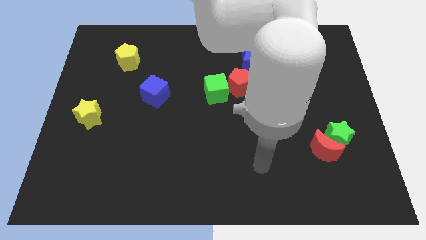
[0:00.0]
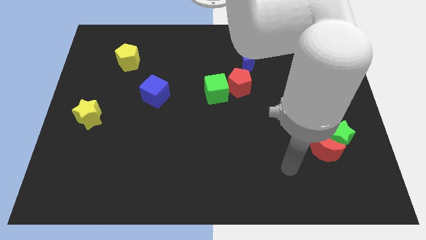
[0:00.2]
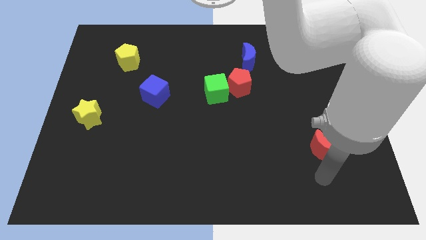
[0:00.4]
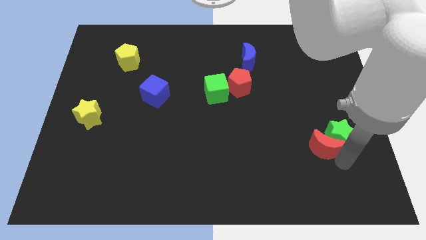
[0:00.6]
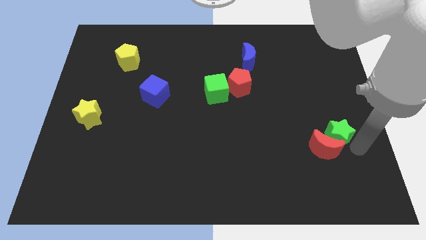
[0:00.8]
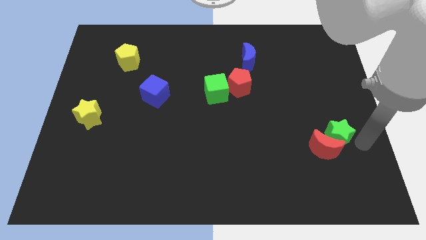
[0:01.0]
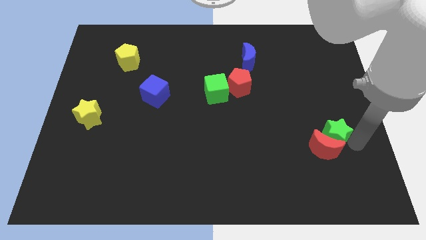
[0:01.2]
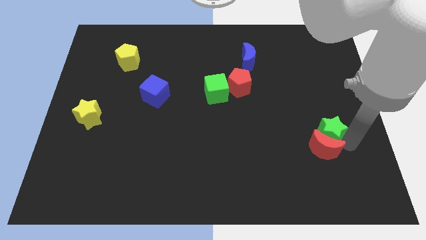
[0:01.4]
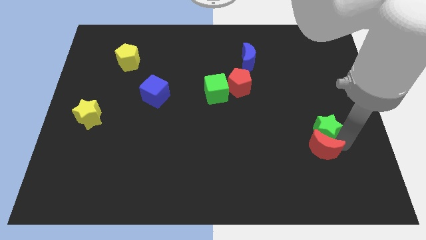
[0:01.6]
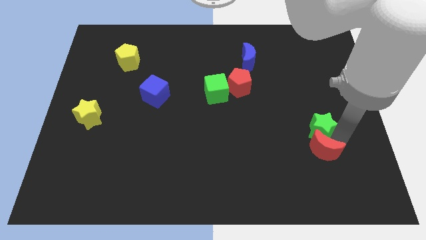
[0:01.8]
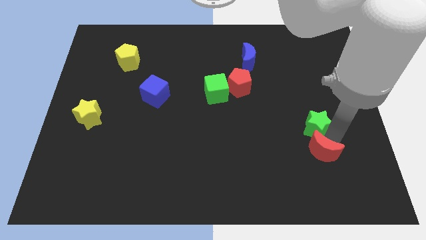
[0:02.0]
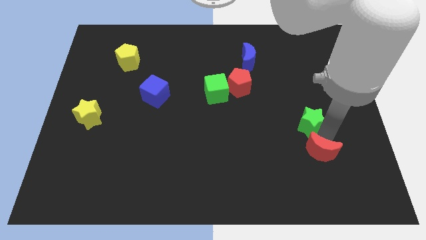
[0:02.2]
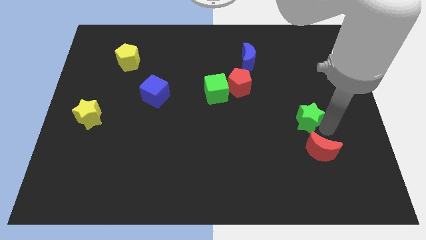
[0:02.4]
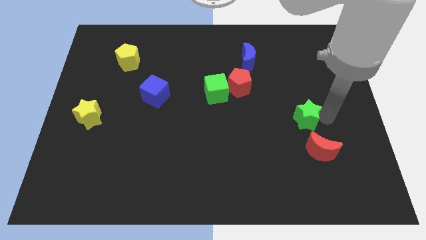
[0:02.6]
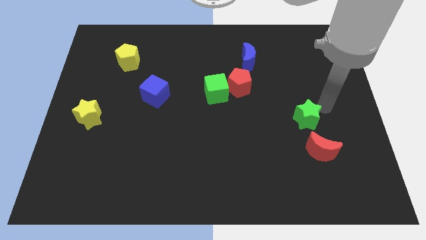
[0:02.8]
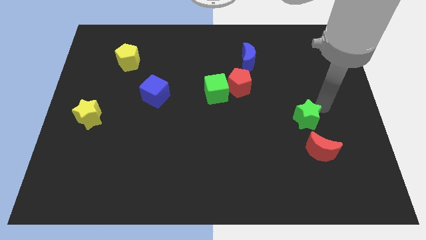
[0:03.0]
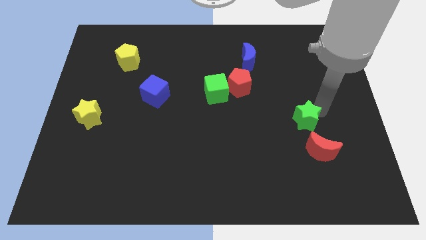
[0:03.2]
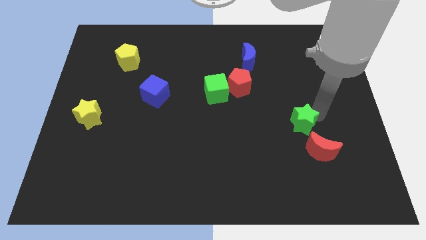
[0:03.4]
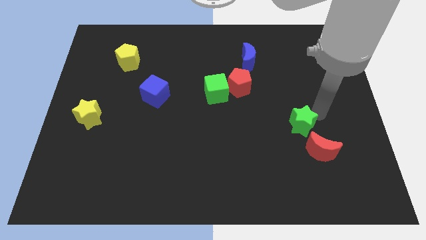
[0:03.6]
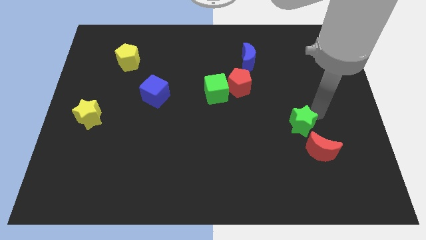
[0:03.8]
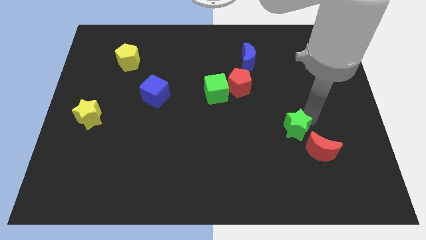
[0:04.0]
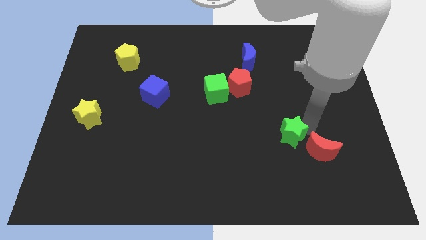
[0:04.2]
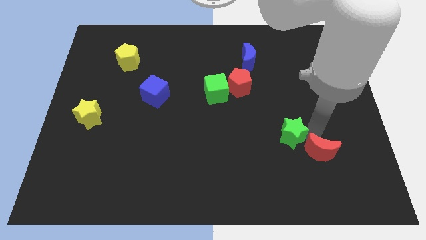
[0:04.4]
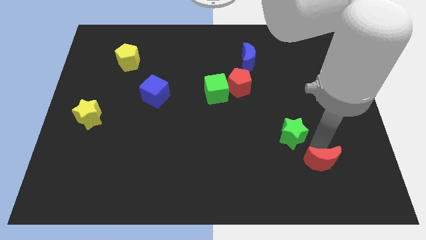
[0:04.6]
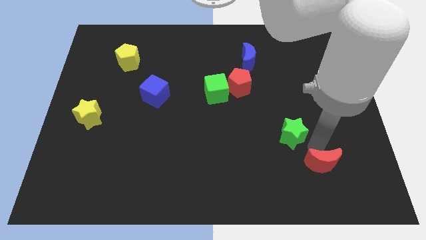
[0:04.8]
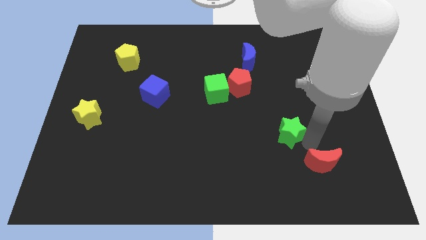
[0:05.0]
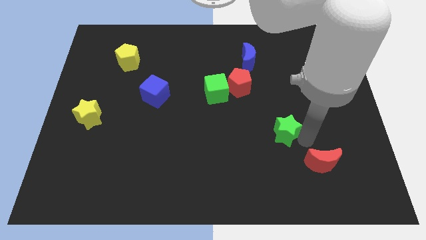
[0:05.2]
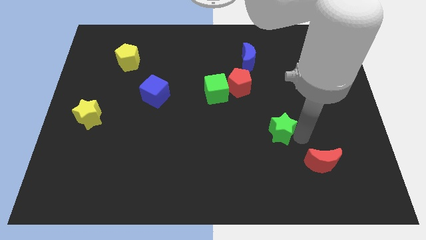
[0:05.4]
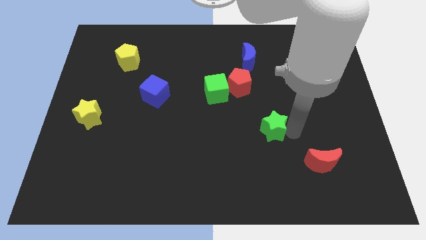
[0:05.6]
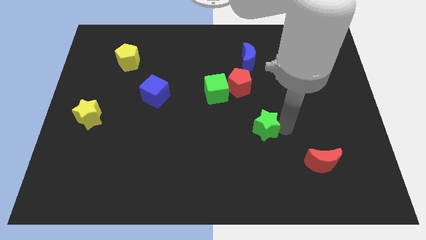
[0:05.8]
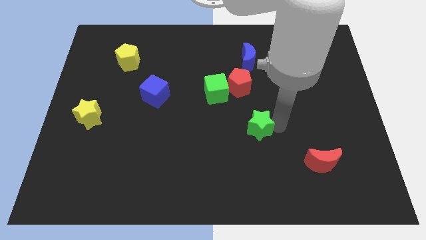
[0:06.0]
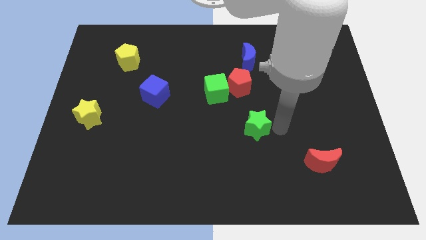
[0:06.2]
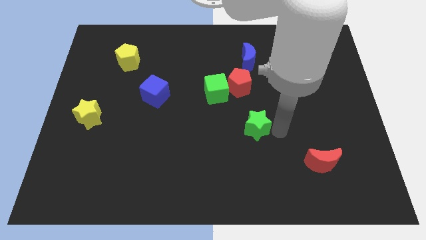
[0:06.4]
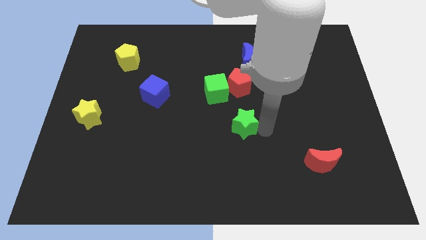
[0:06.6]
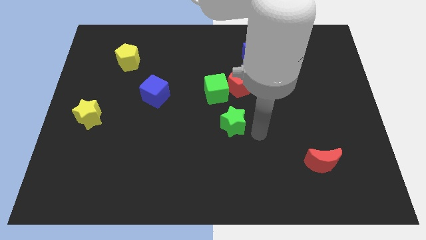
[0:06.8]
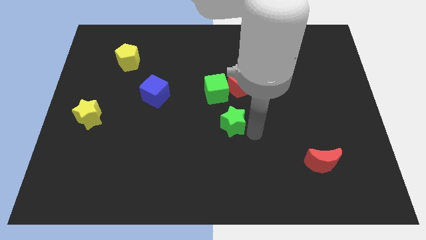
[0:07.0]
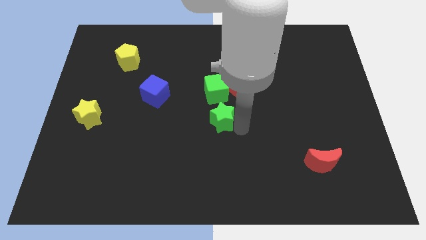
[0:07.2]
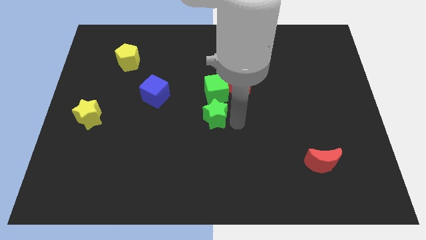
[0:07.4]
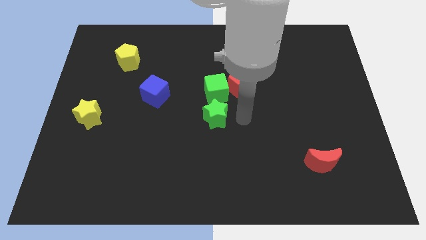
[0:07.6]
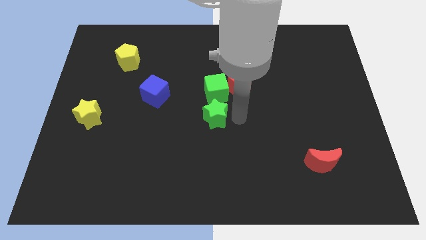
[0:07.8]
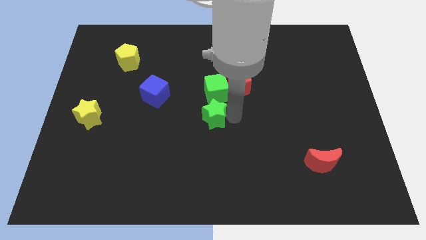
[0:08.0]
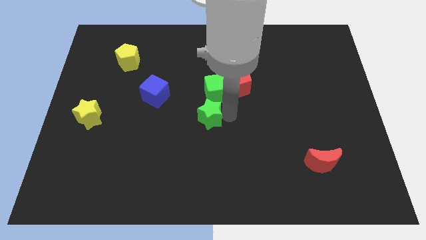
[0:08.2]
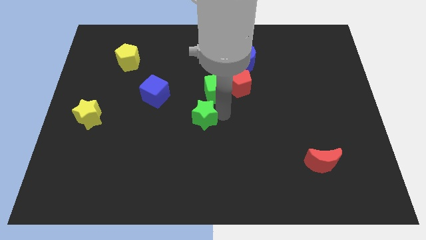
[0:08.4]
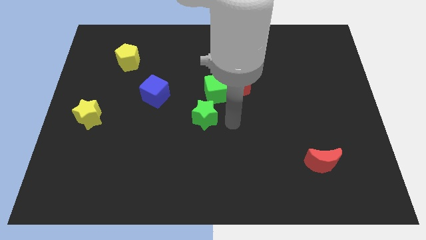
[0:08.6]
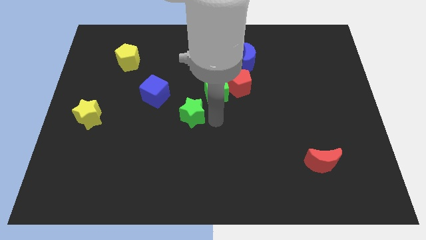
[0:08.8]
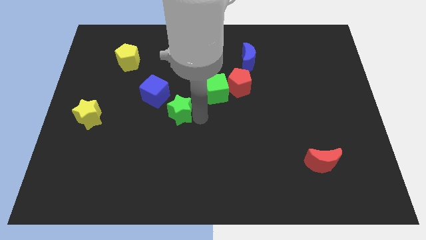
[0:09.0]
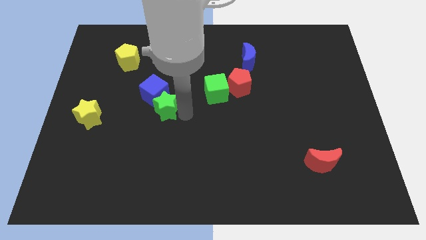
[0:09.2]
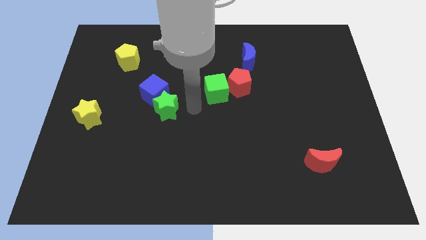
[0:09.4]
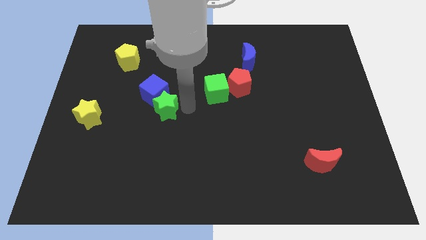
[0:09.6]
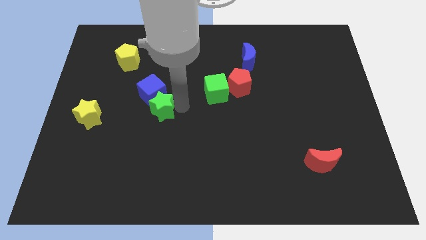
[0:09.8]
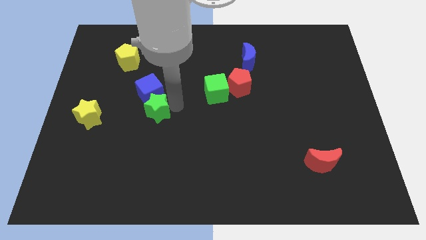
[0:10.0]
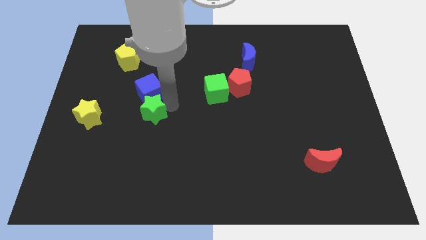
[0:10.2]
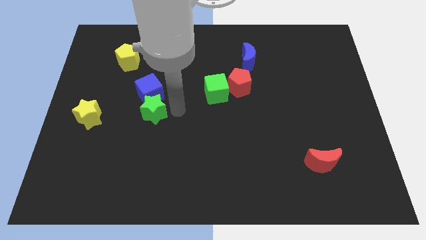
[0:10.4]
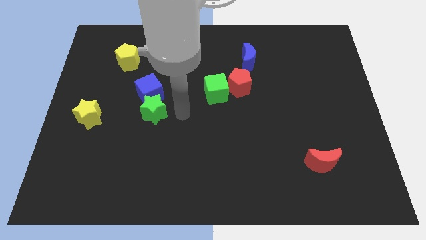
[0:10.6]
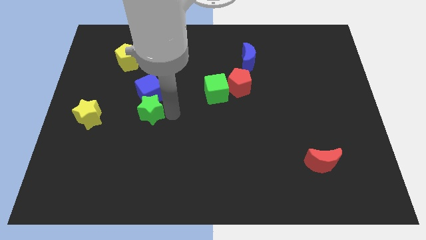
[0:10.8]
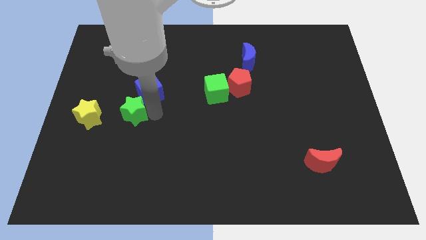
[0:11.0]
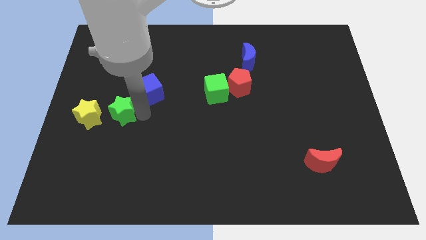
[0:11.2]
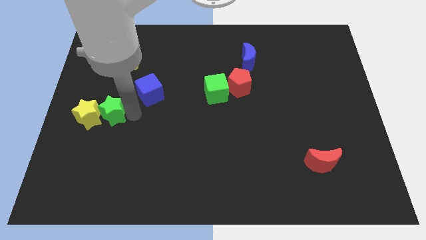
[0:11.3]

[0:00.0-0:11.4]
put the green star towards the yellow star

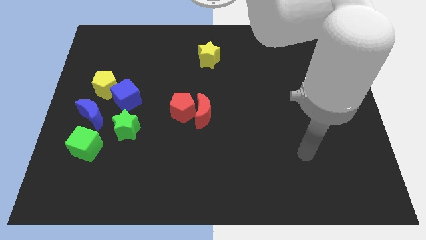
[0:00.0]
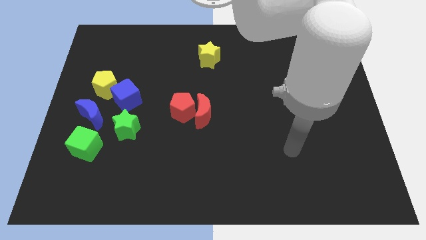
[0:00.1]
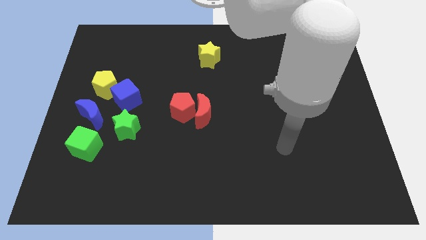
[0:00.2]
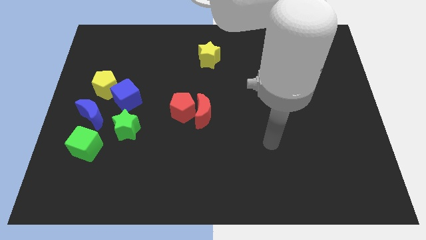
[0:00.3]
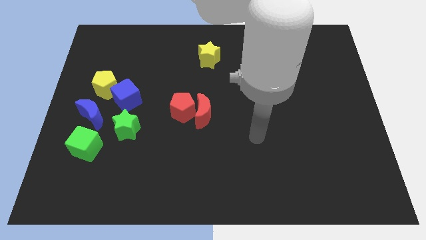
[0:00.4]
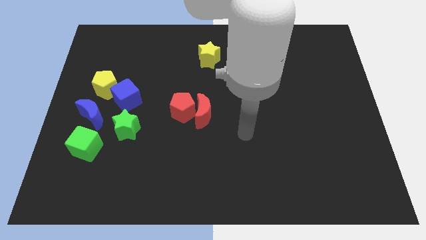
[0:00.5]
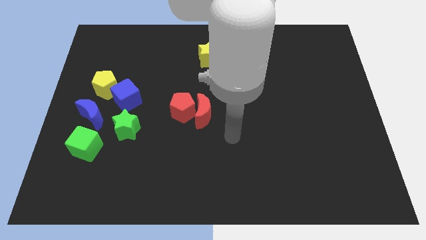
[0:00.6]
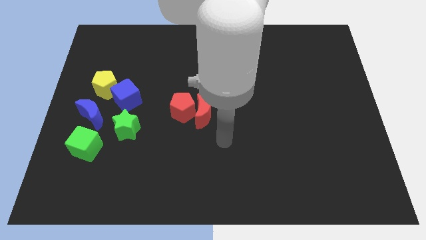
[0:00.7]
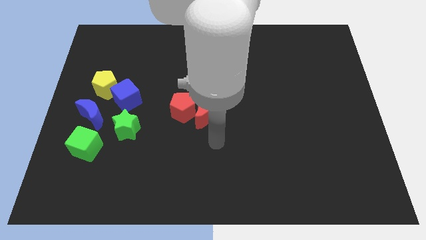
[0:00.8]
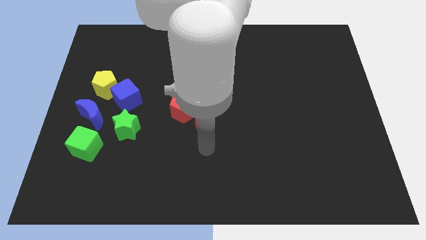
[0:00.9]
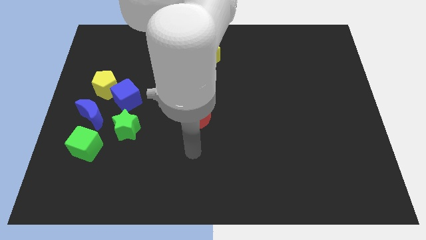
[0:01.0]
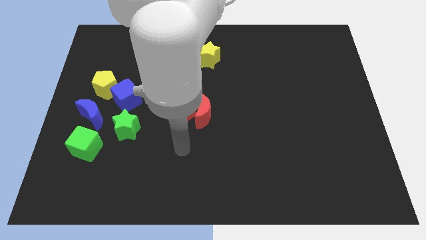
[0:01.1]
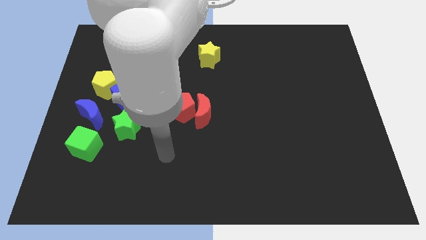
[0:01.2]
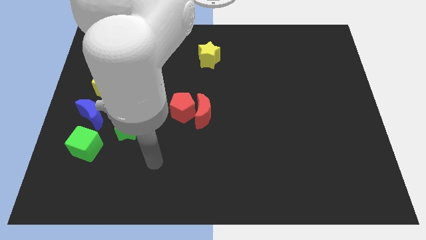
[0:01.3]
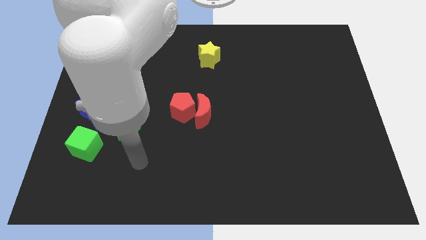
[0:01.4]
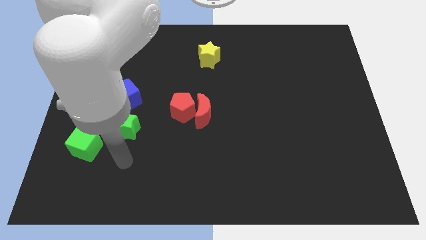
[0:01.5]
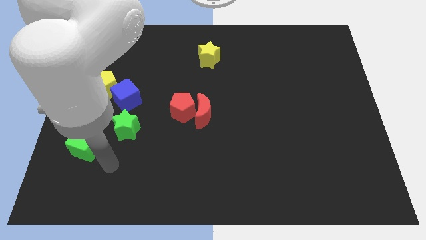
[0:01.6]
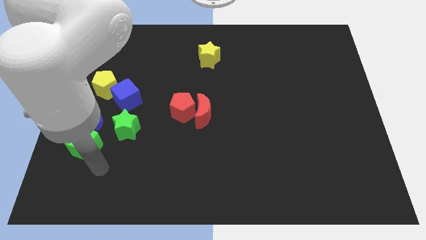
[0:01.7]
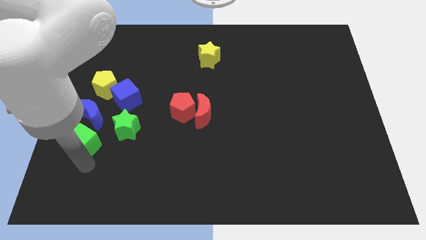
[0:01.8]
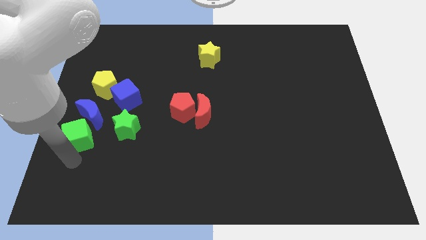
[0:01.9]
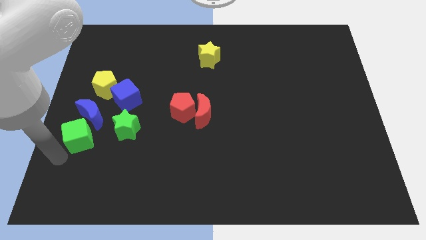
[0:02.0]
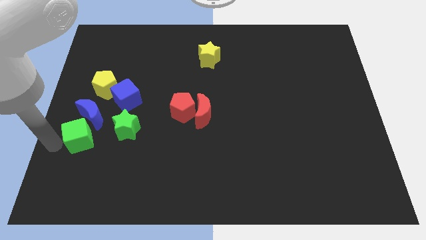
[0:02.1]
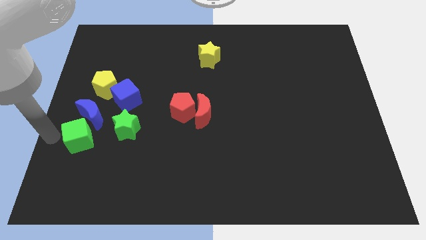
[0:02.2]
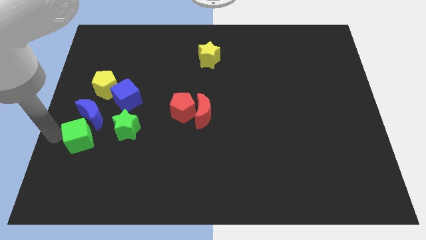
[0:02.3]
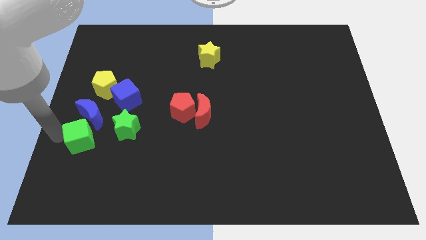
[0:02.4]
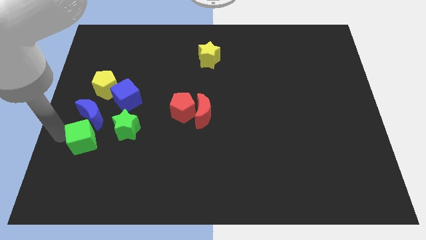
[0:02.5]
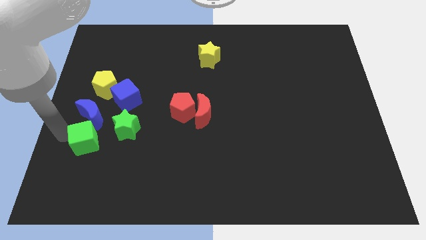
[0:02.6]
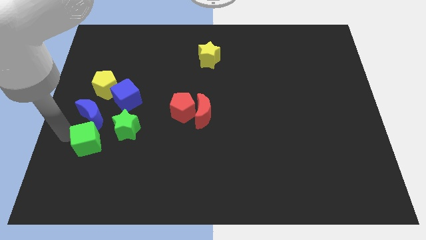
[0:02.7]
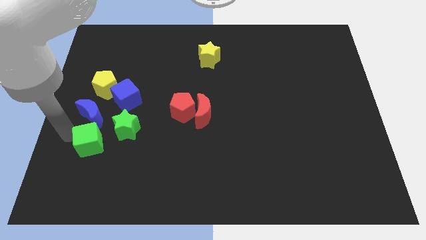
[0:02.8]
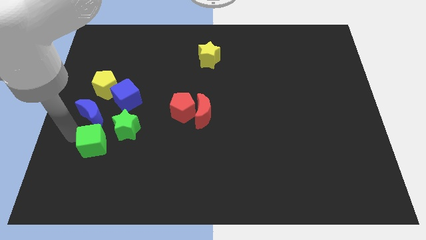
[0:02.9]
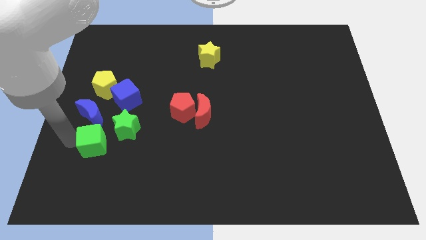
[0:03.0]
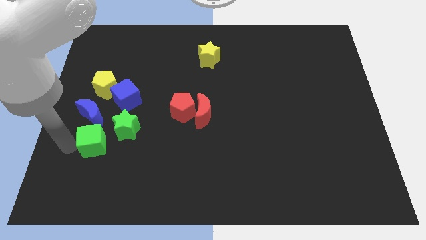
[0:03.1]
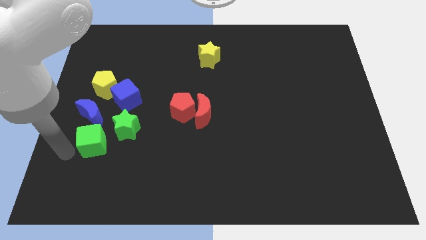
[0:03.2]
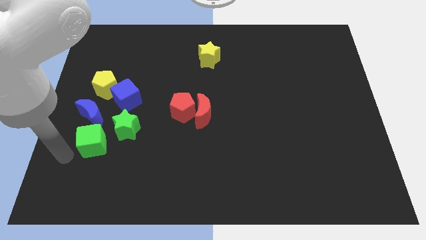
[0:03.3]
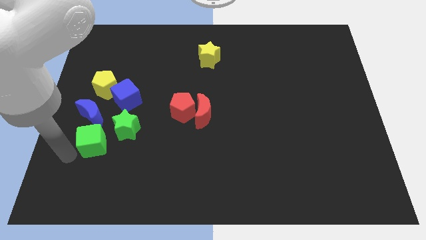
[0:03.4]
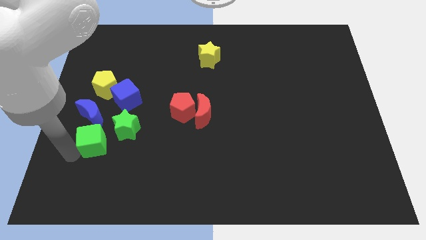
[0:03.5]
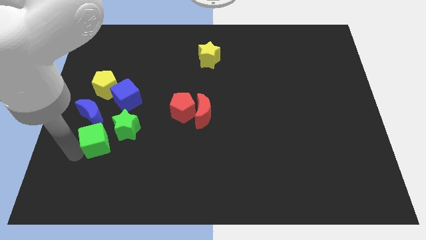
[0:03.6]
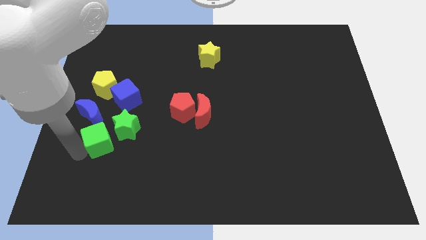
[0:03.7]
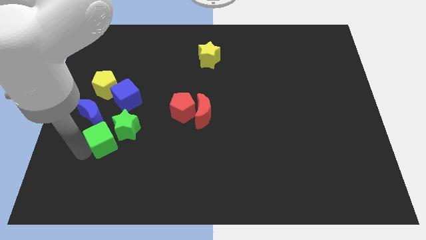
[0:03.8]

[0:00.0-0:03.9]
put the green cube to the green star
